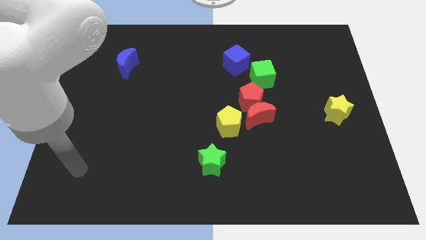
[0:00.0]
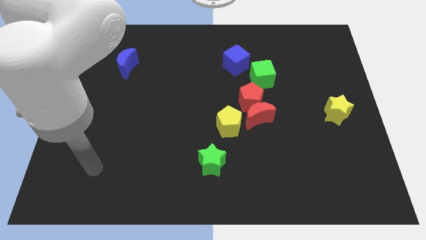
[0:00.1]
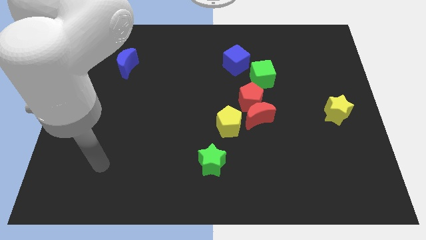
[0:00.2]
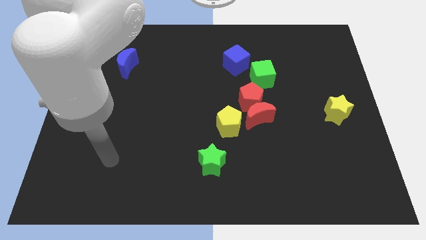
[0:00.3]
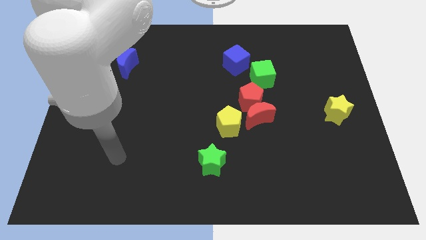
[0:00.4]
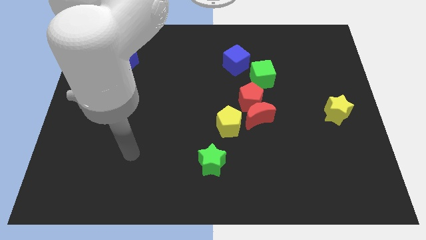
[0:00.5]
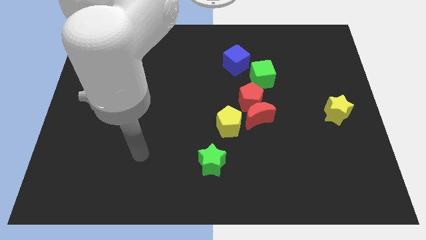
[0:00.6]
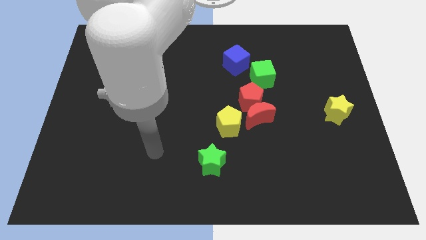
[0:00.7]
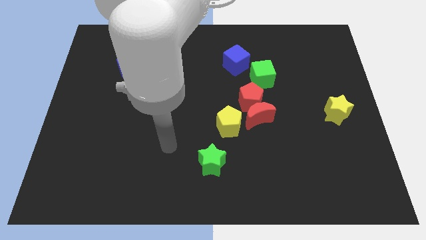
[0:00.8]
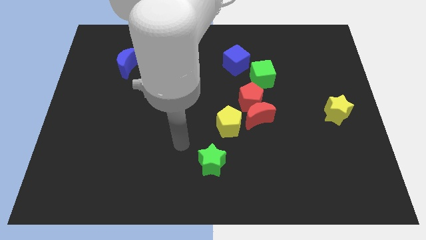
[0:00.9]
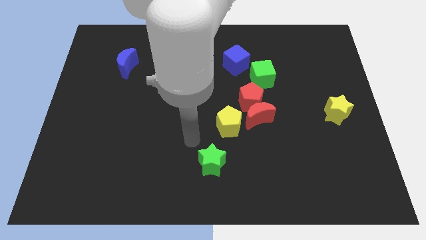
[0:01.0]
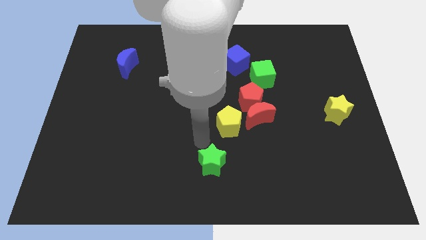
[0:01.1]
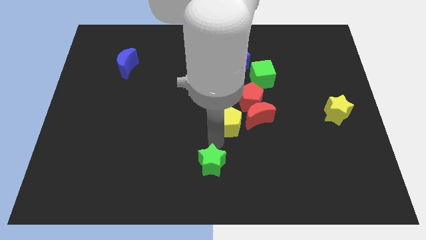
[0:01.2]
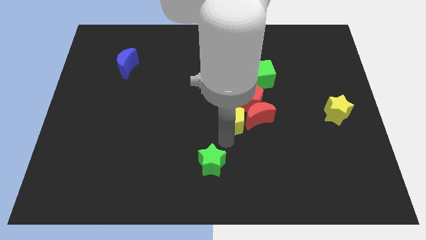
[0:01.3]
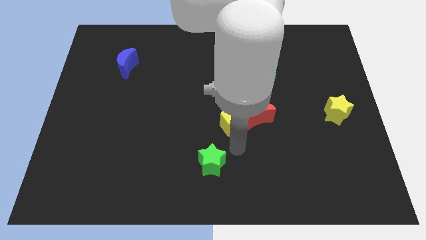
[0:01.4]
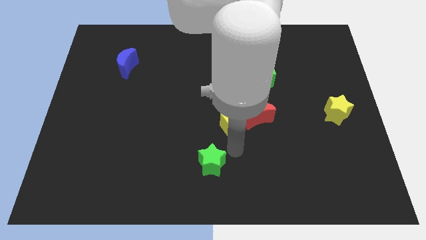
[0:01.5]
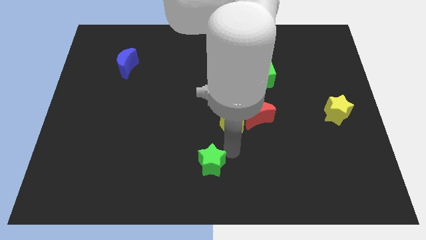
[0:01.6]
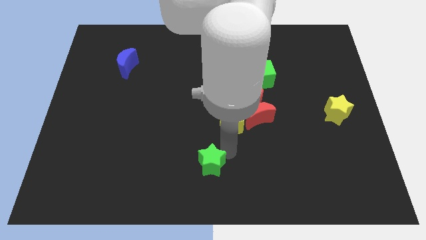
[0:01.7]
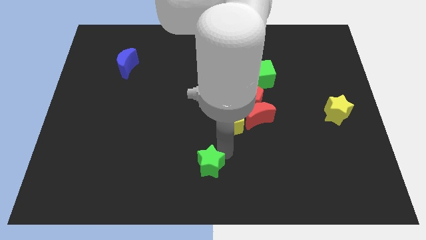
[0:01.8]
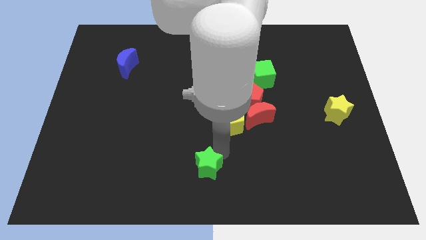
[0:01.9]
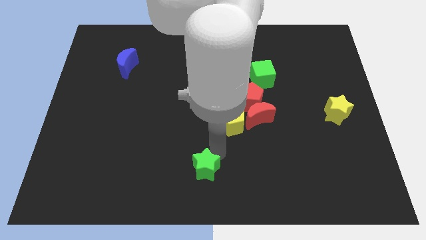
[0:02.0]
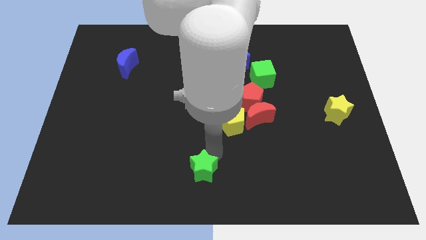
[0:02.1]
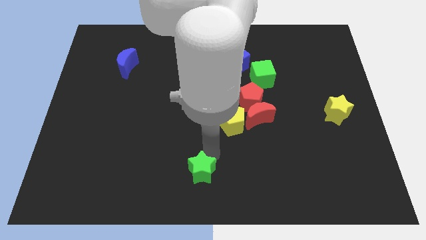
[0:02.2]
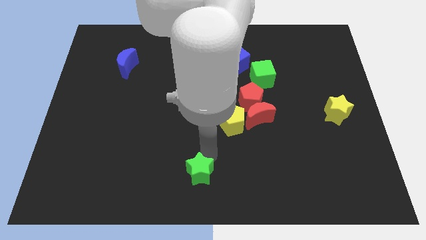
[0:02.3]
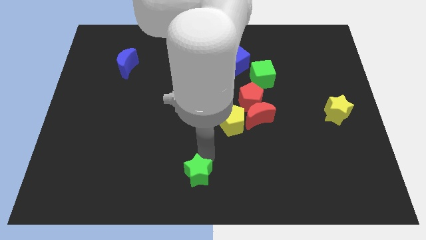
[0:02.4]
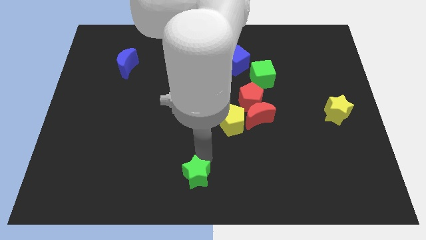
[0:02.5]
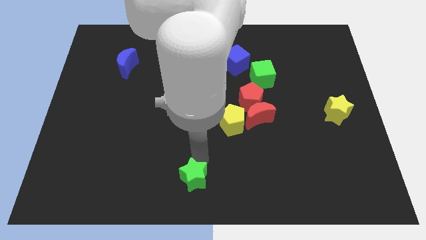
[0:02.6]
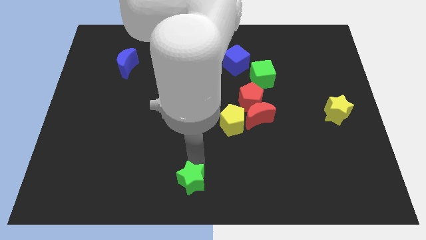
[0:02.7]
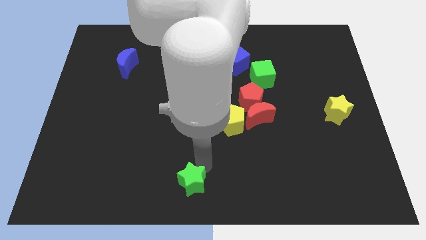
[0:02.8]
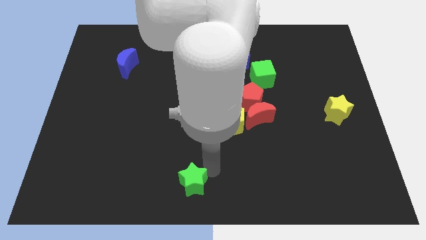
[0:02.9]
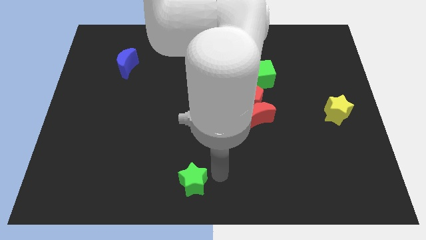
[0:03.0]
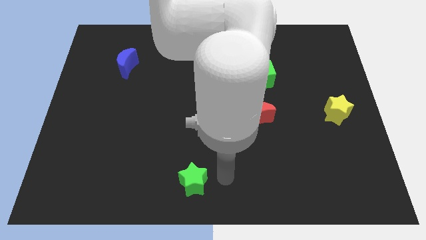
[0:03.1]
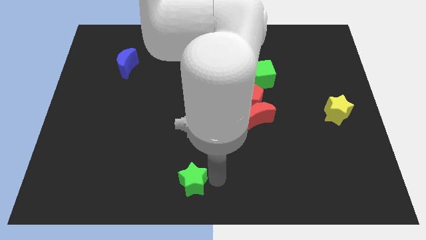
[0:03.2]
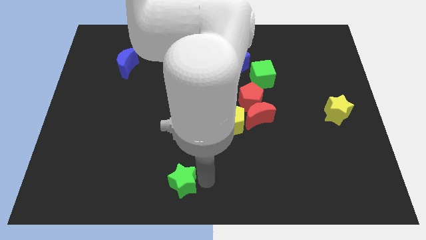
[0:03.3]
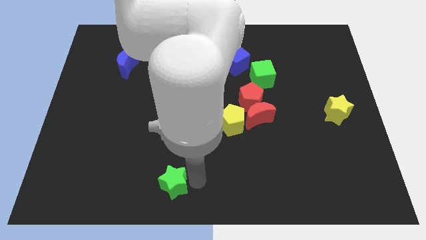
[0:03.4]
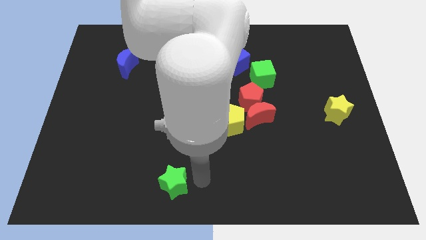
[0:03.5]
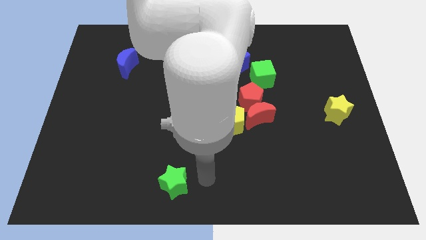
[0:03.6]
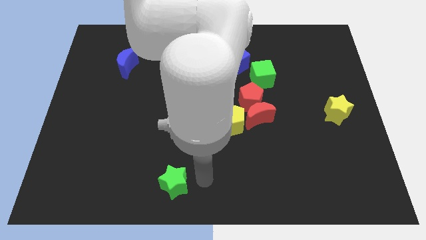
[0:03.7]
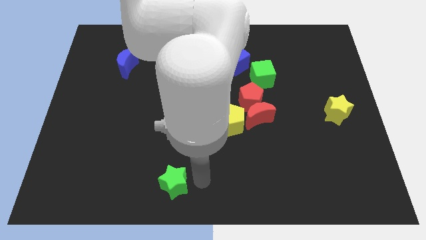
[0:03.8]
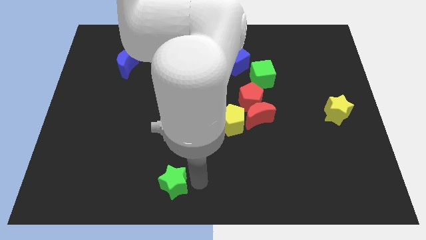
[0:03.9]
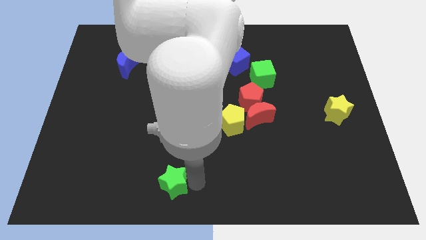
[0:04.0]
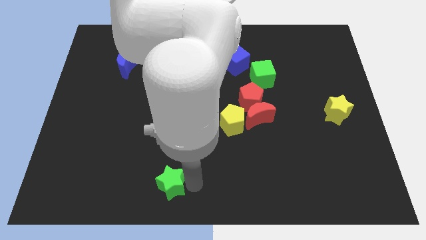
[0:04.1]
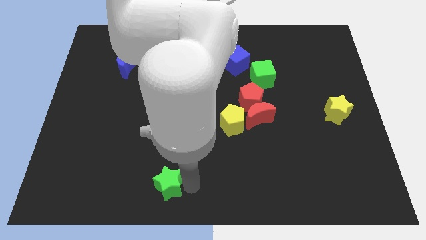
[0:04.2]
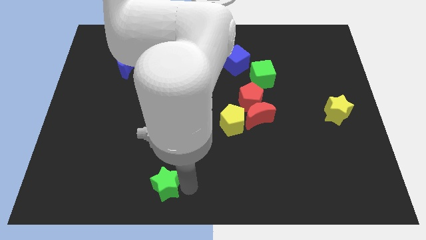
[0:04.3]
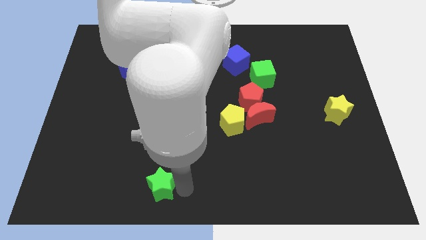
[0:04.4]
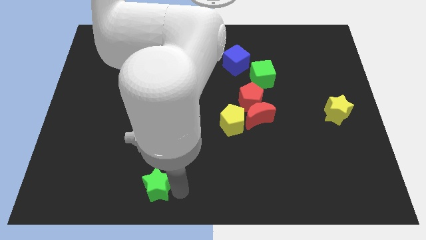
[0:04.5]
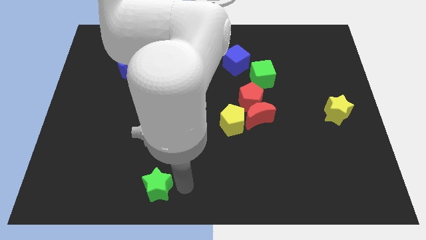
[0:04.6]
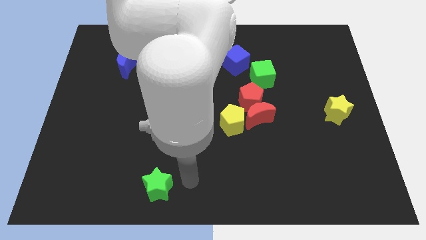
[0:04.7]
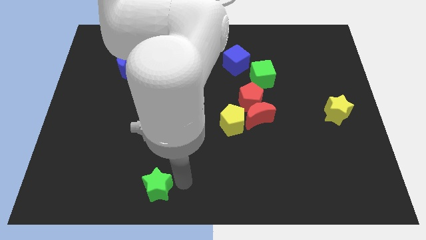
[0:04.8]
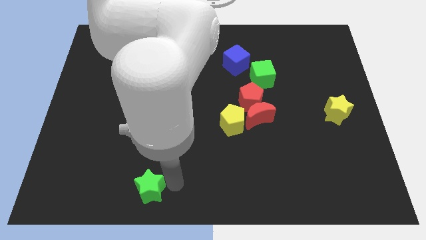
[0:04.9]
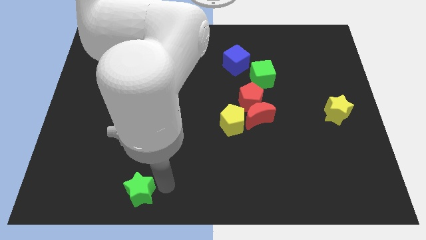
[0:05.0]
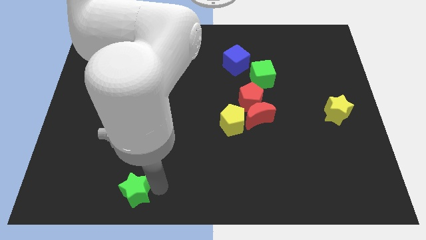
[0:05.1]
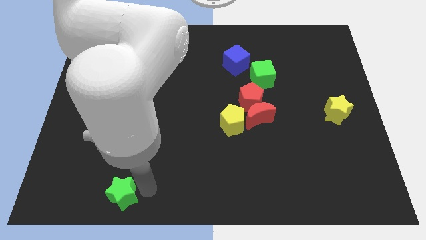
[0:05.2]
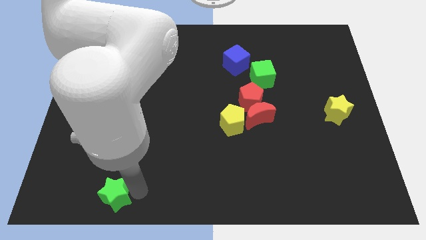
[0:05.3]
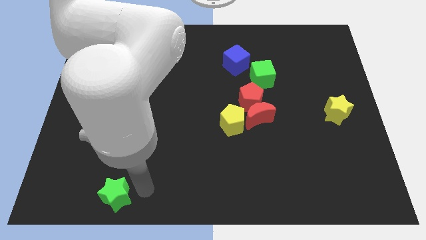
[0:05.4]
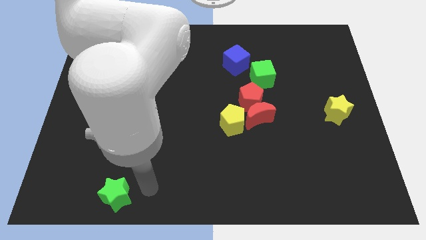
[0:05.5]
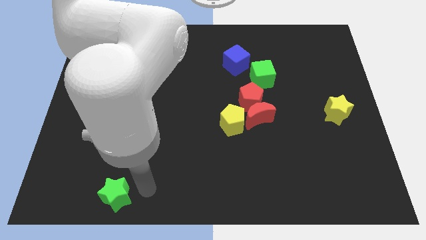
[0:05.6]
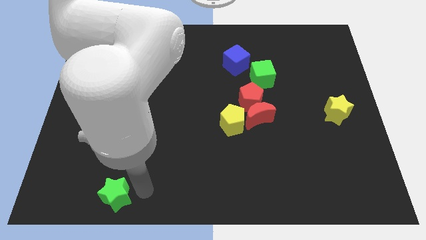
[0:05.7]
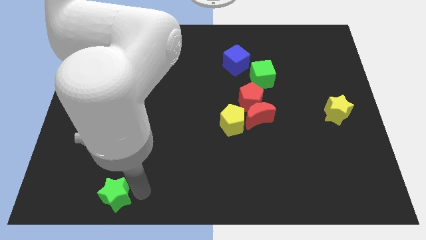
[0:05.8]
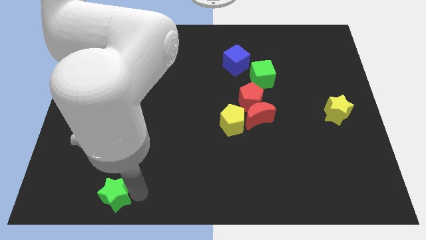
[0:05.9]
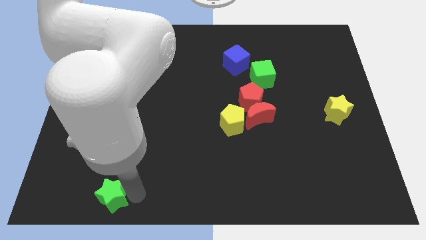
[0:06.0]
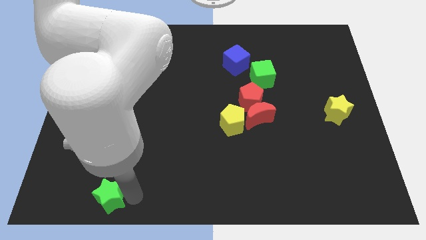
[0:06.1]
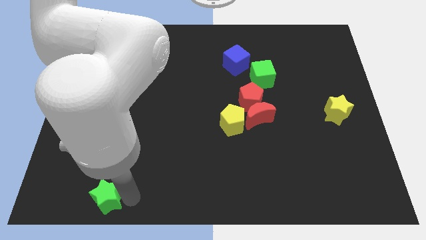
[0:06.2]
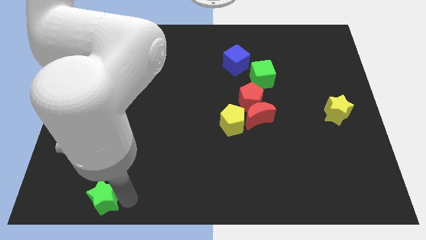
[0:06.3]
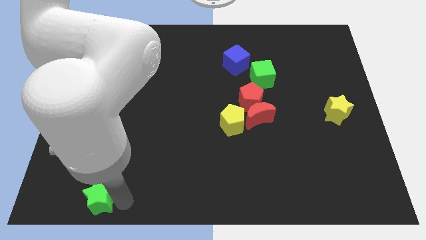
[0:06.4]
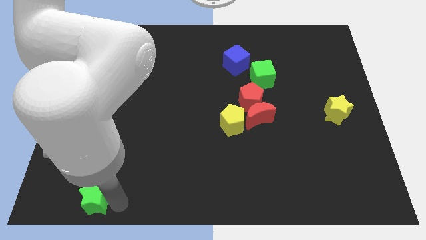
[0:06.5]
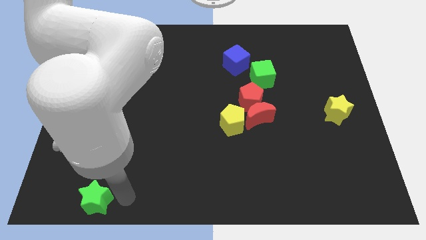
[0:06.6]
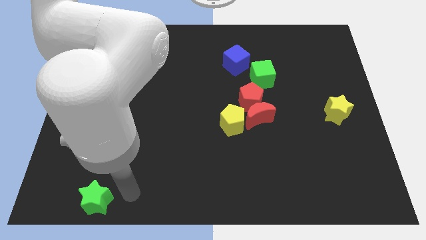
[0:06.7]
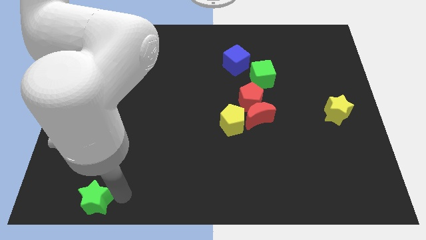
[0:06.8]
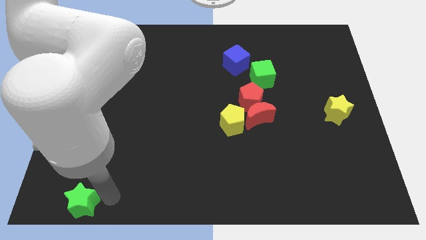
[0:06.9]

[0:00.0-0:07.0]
slide the green star to the bottom left of the board
